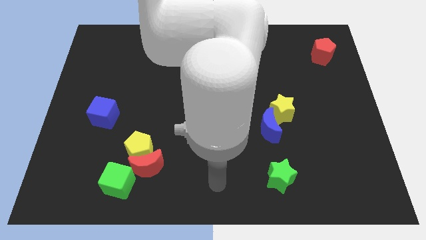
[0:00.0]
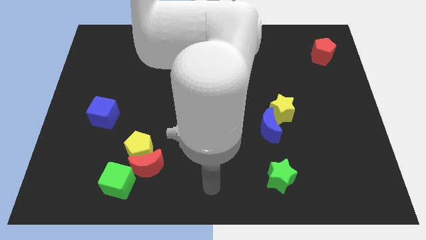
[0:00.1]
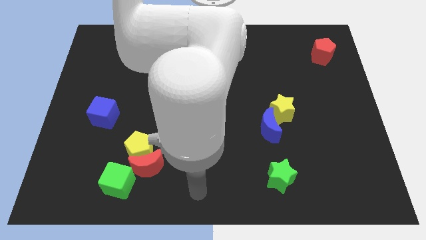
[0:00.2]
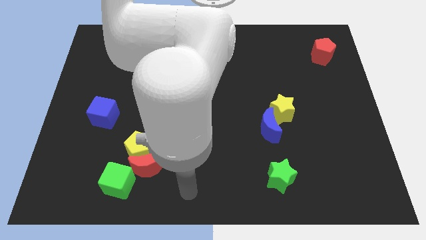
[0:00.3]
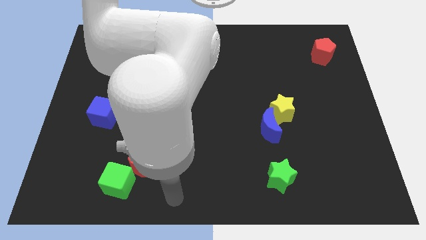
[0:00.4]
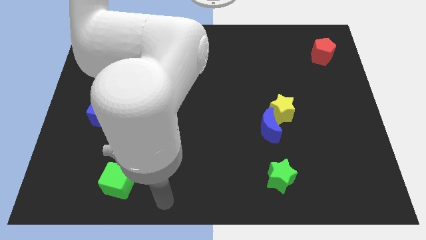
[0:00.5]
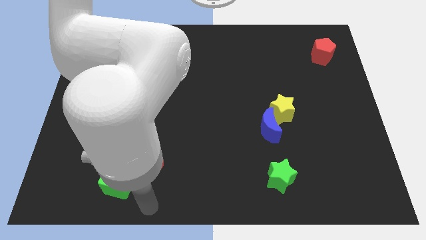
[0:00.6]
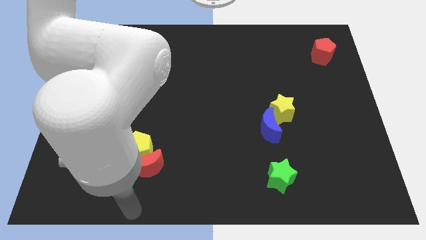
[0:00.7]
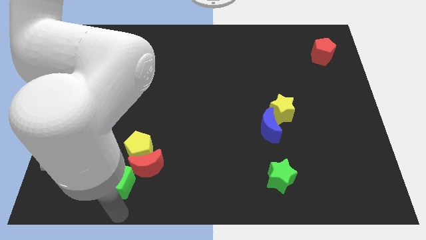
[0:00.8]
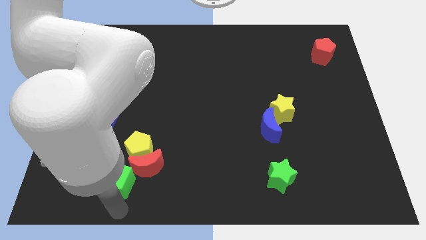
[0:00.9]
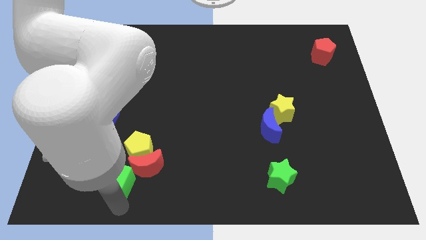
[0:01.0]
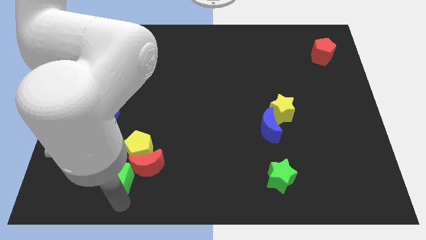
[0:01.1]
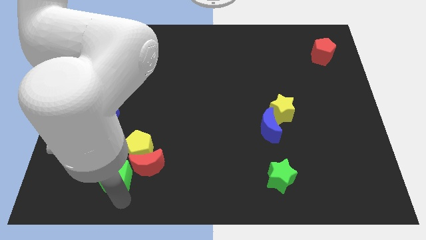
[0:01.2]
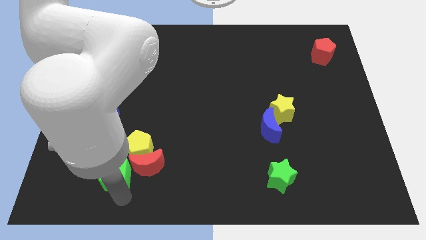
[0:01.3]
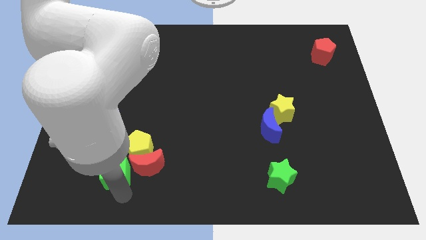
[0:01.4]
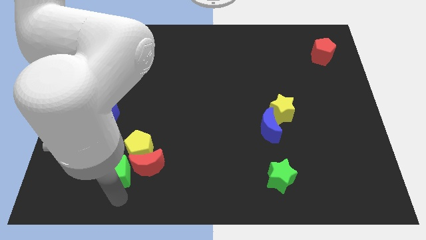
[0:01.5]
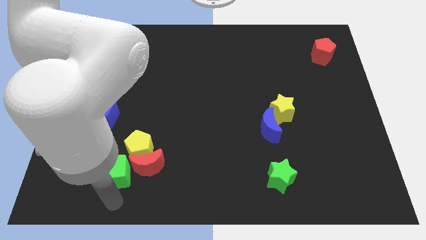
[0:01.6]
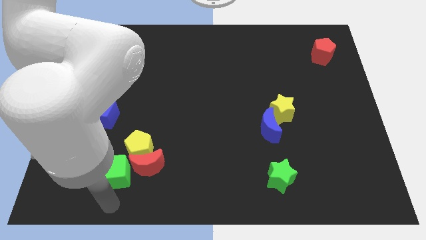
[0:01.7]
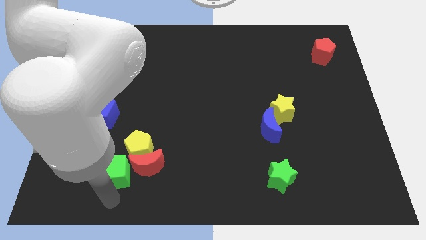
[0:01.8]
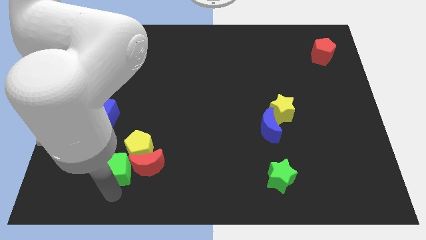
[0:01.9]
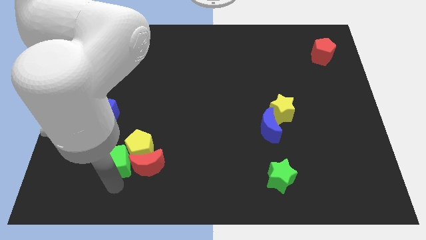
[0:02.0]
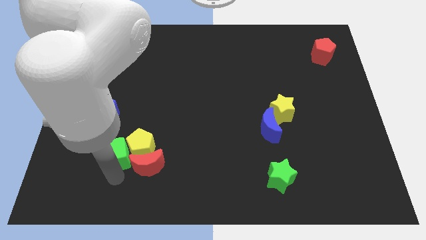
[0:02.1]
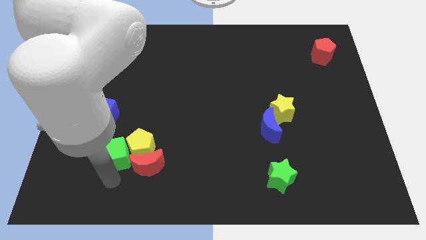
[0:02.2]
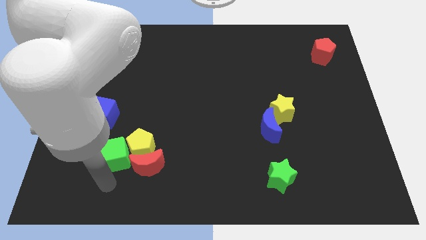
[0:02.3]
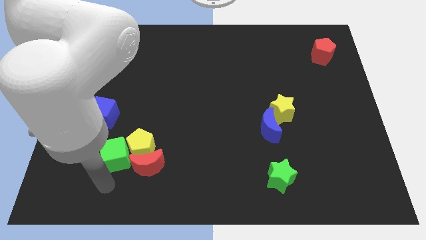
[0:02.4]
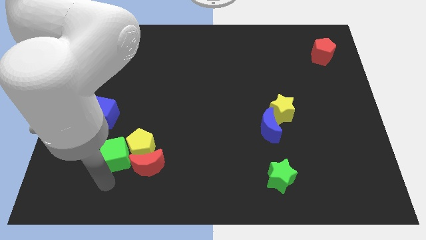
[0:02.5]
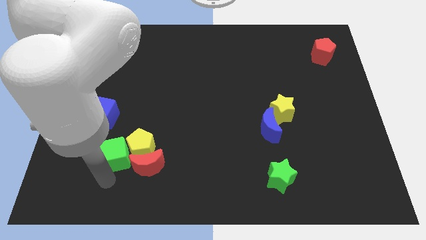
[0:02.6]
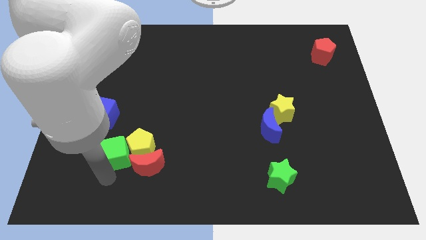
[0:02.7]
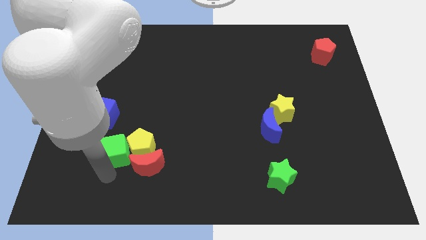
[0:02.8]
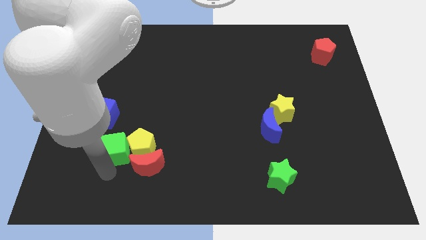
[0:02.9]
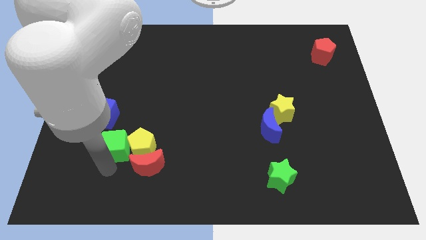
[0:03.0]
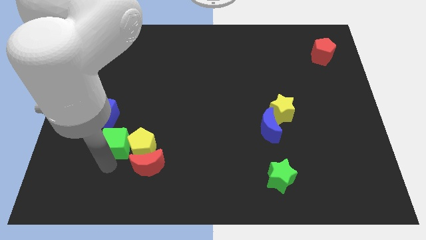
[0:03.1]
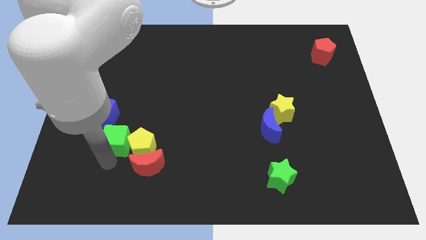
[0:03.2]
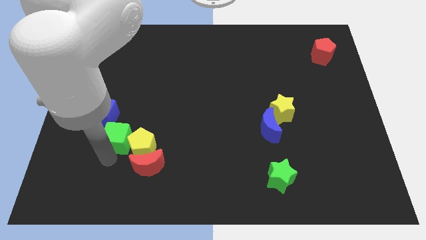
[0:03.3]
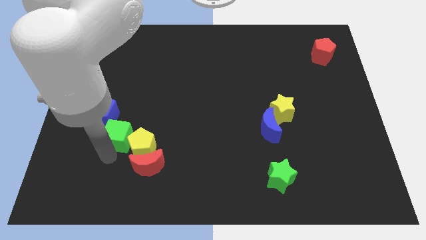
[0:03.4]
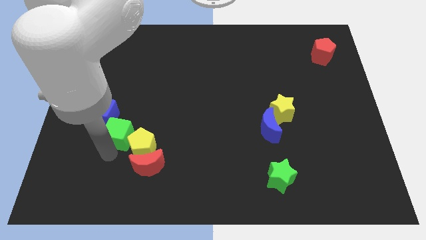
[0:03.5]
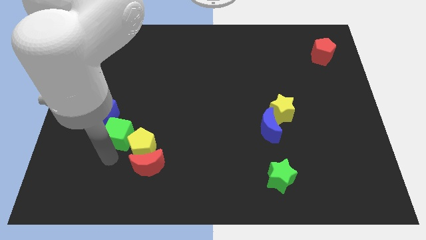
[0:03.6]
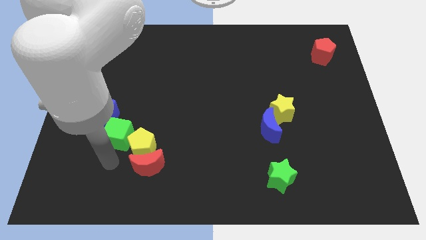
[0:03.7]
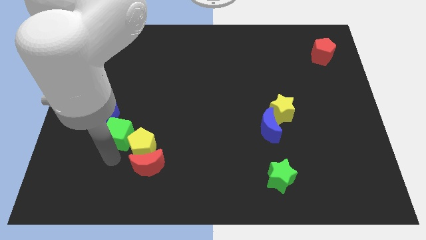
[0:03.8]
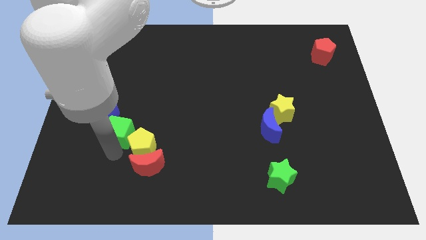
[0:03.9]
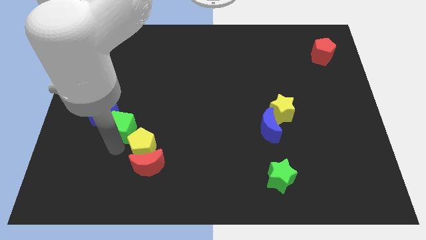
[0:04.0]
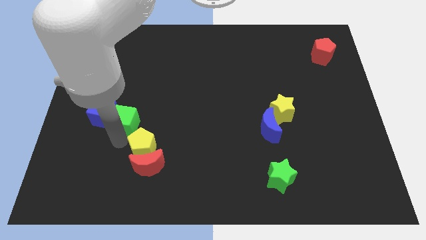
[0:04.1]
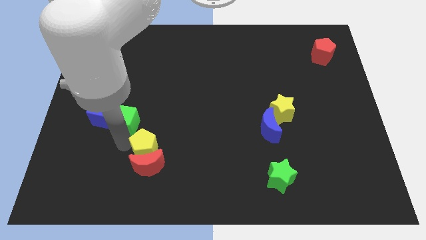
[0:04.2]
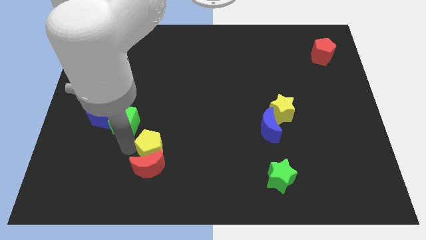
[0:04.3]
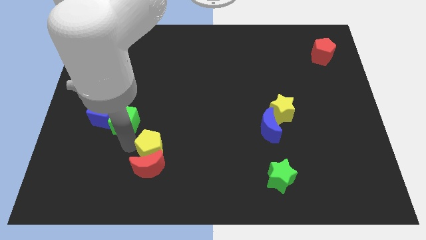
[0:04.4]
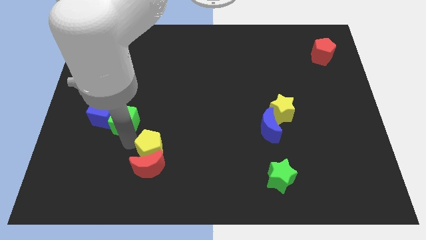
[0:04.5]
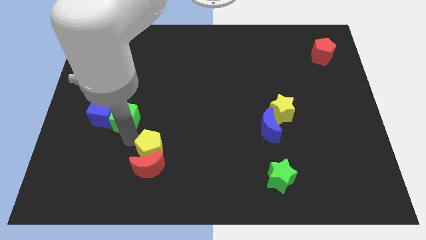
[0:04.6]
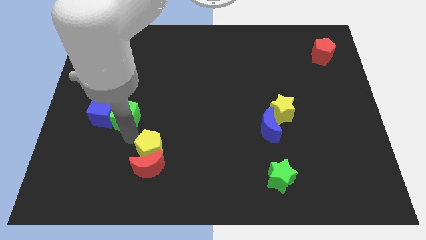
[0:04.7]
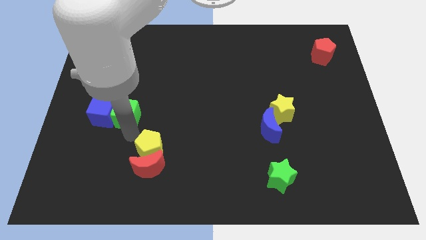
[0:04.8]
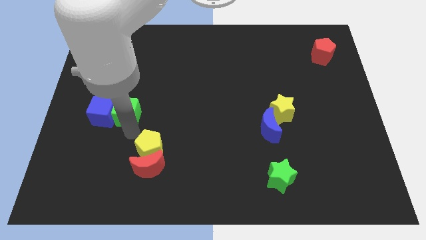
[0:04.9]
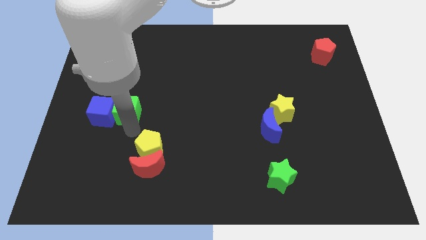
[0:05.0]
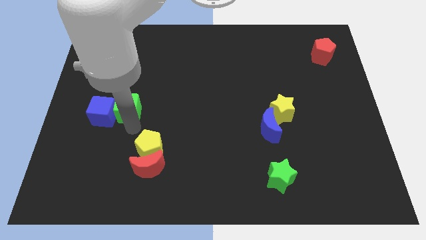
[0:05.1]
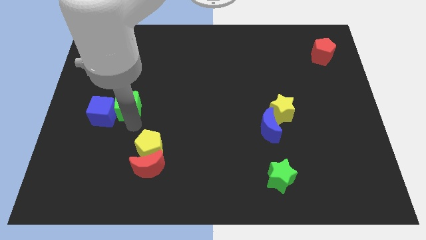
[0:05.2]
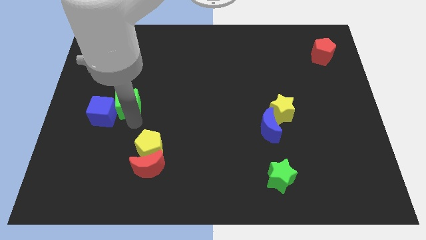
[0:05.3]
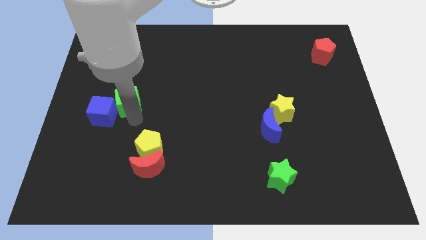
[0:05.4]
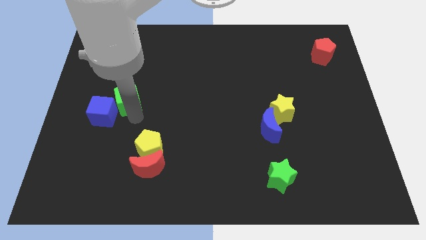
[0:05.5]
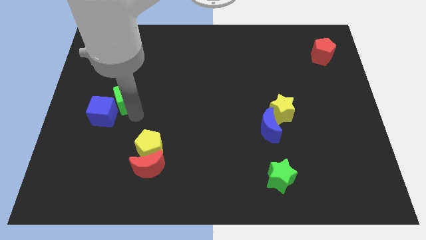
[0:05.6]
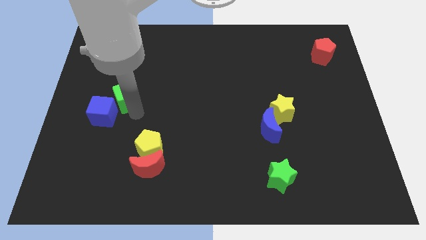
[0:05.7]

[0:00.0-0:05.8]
slide the green cube to the top of the blue cube

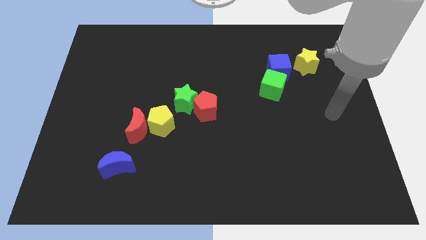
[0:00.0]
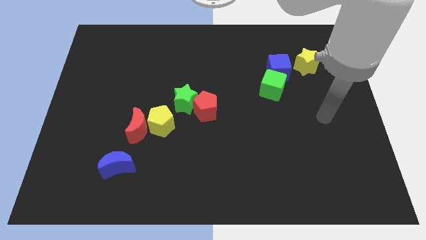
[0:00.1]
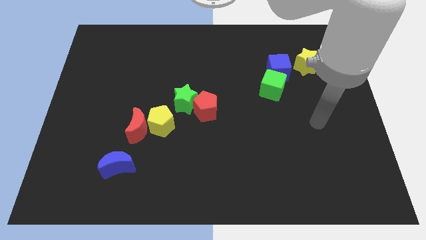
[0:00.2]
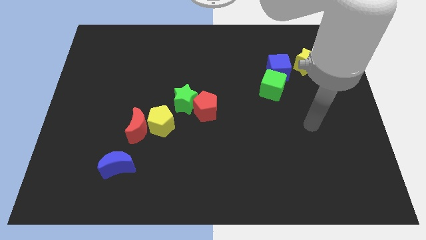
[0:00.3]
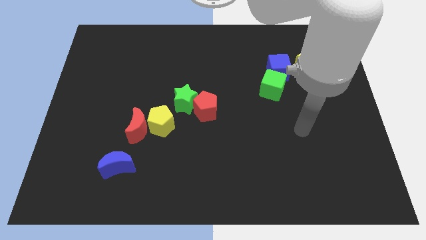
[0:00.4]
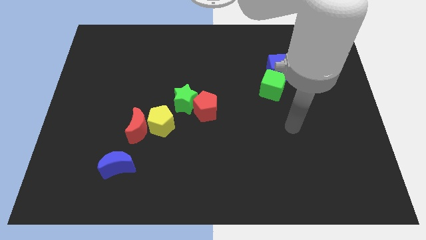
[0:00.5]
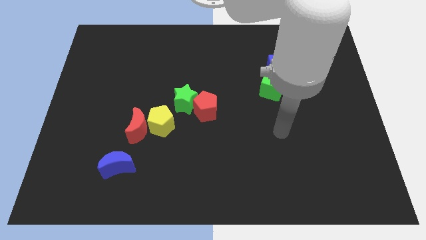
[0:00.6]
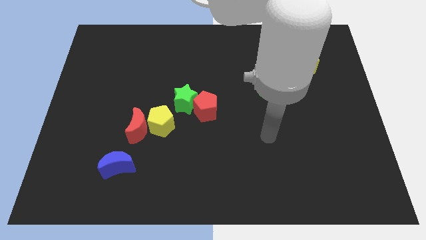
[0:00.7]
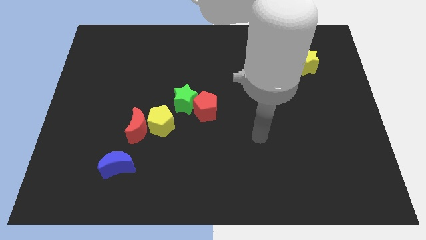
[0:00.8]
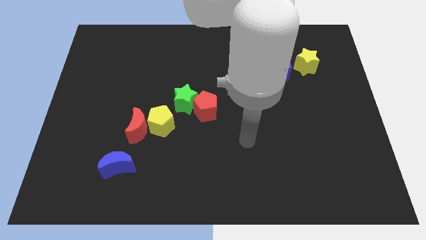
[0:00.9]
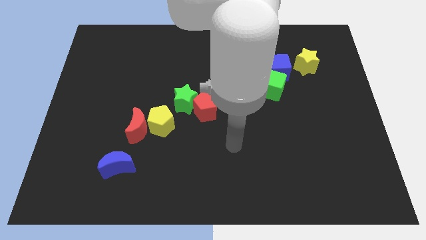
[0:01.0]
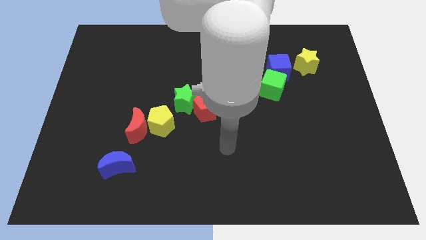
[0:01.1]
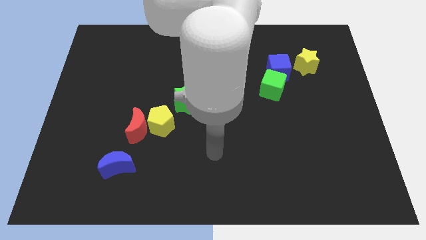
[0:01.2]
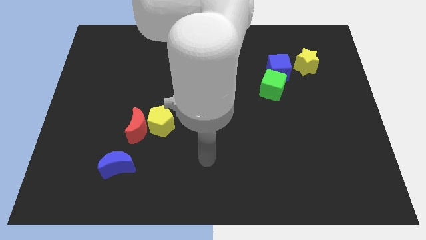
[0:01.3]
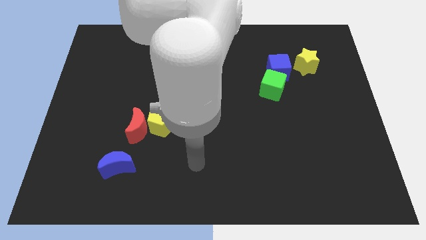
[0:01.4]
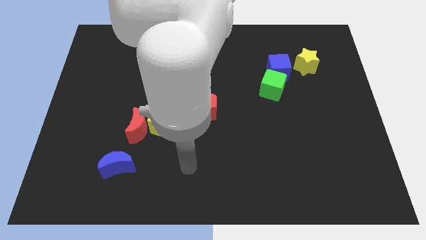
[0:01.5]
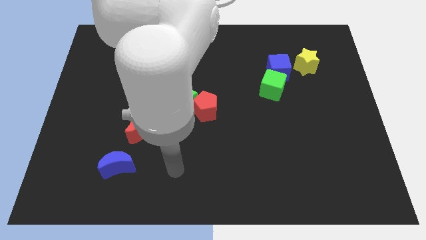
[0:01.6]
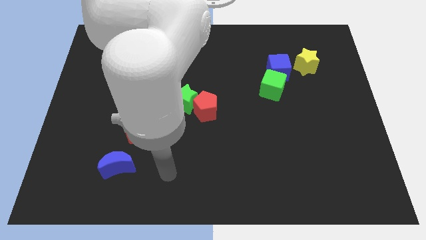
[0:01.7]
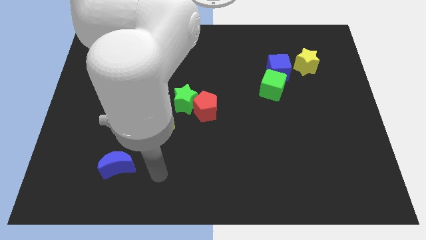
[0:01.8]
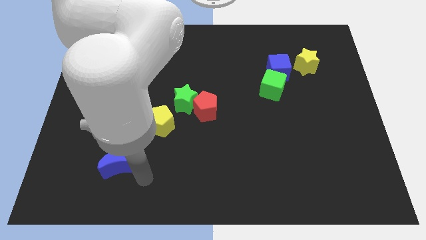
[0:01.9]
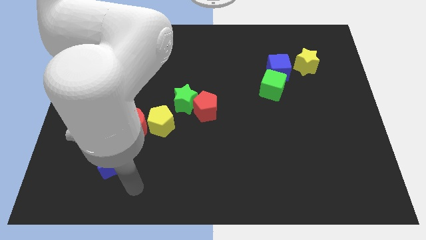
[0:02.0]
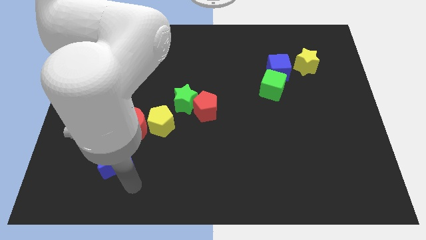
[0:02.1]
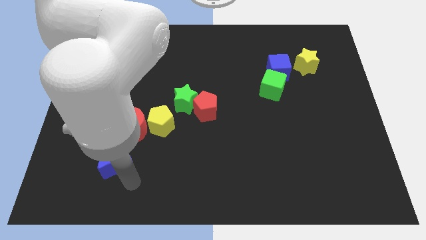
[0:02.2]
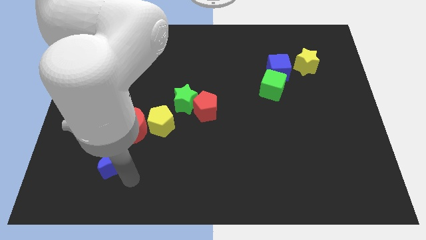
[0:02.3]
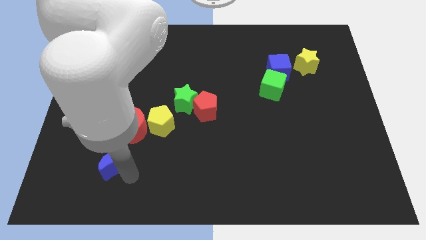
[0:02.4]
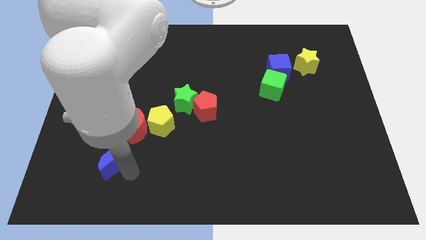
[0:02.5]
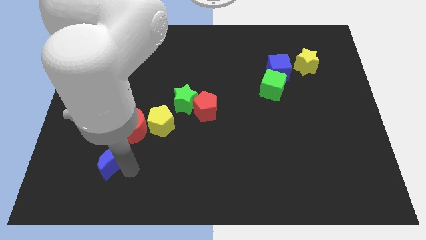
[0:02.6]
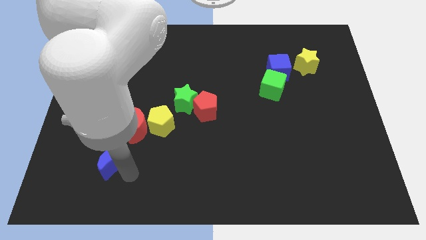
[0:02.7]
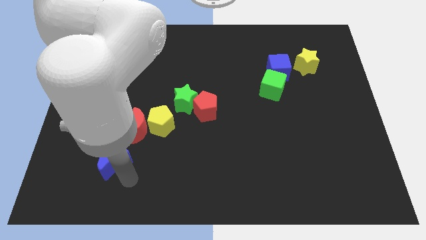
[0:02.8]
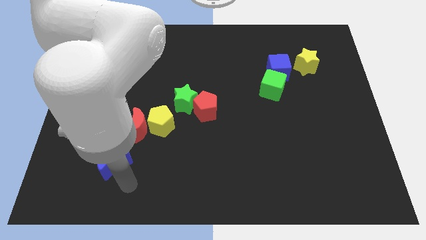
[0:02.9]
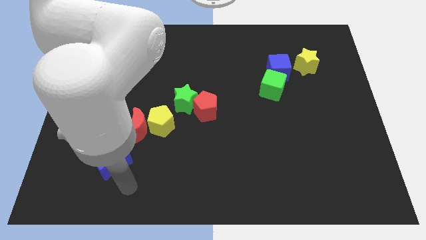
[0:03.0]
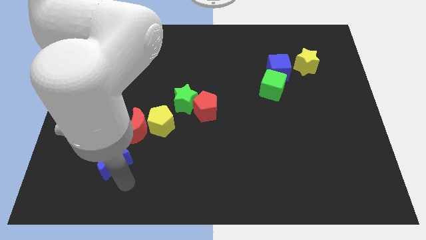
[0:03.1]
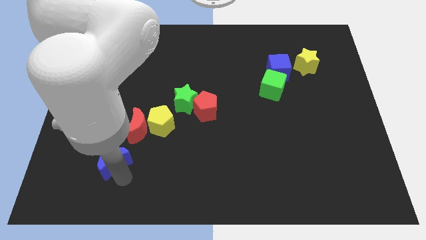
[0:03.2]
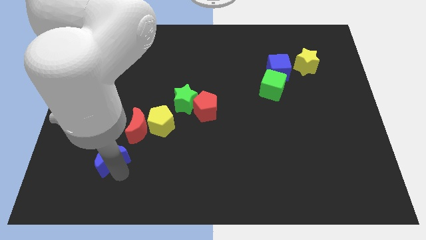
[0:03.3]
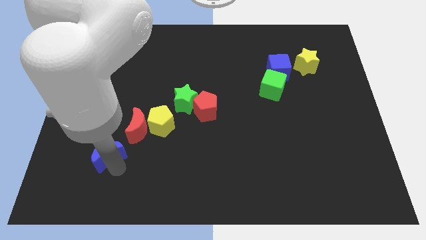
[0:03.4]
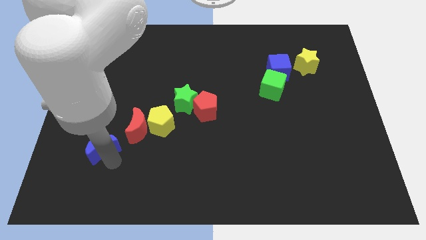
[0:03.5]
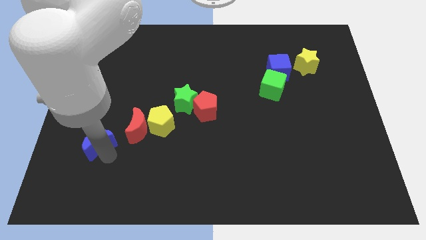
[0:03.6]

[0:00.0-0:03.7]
put the blue moon to the left side of the red moon
